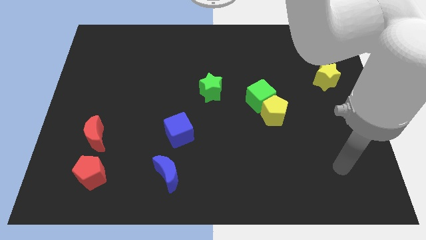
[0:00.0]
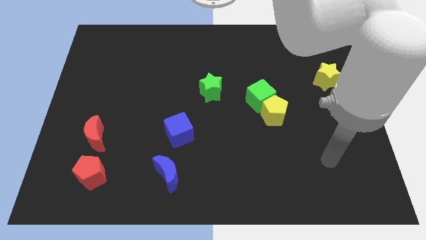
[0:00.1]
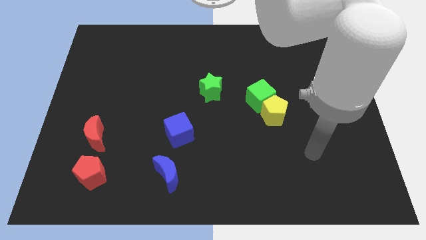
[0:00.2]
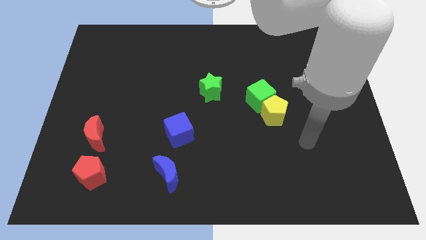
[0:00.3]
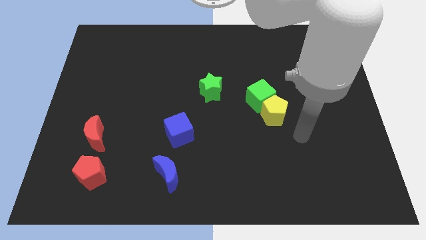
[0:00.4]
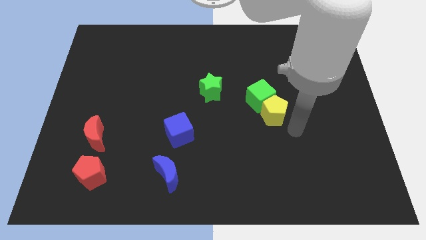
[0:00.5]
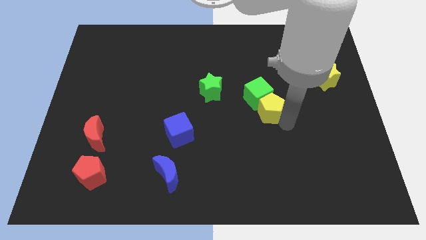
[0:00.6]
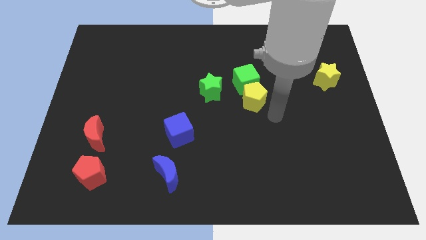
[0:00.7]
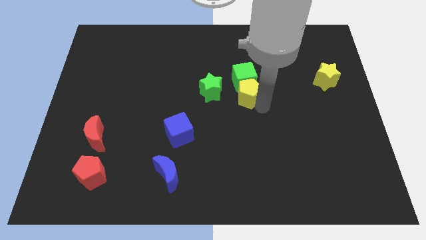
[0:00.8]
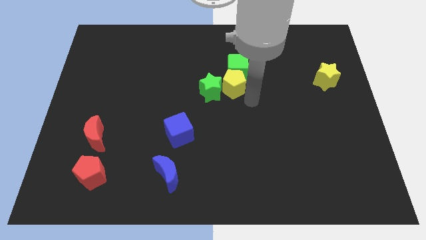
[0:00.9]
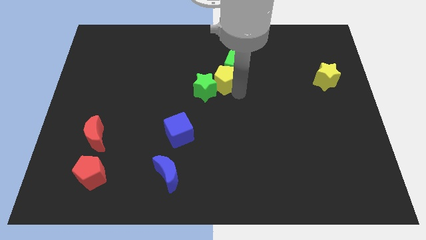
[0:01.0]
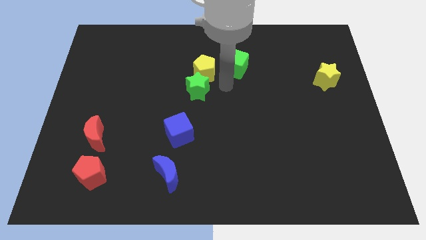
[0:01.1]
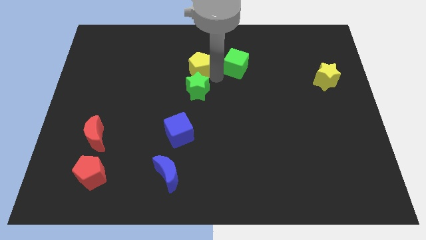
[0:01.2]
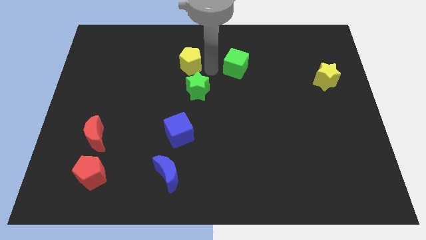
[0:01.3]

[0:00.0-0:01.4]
pull the green cube apart from the yellow pentagon

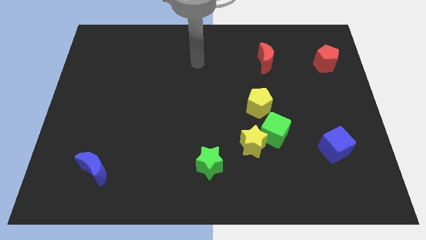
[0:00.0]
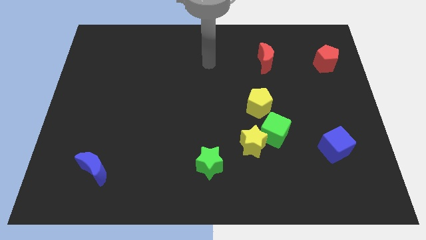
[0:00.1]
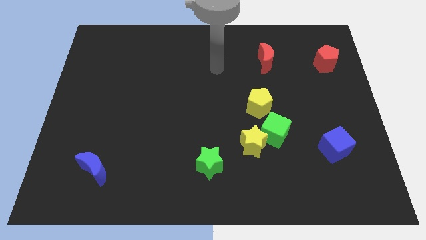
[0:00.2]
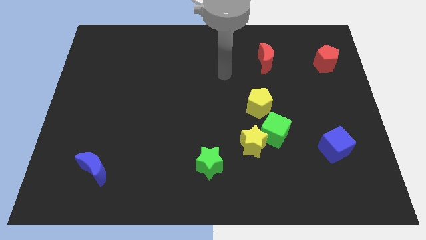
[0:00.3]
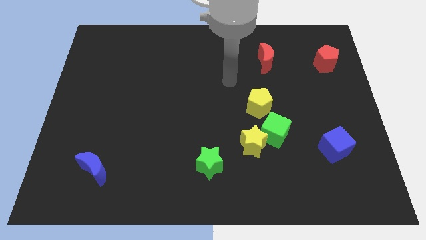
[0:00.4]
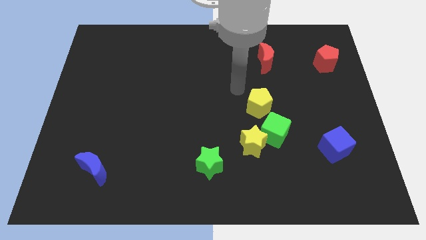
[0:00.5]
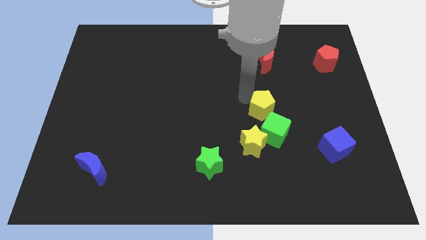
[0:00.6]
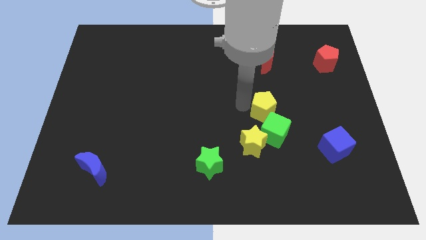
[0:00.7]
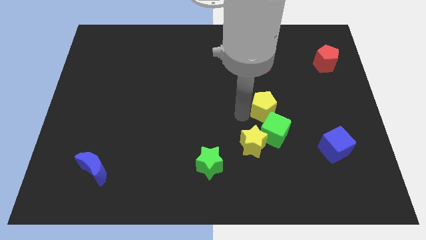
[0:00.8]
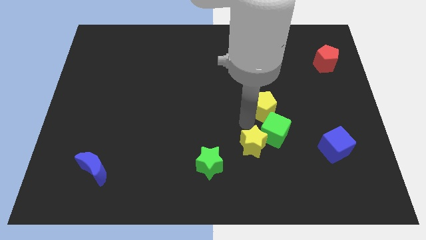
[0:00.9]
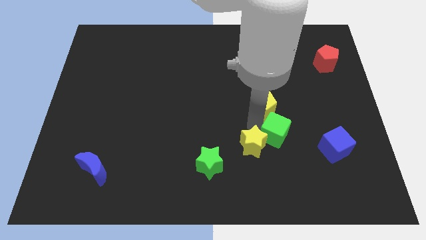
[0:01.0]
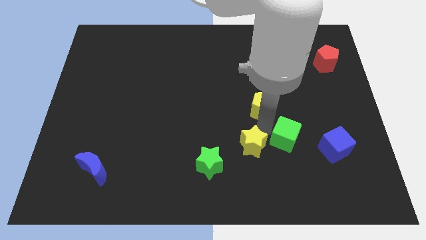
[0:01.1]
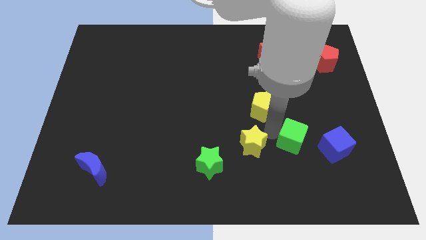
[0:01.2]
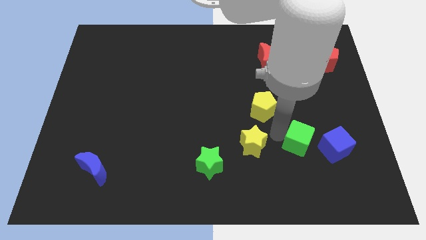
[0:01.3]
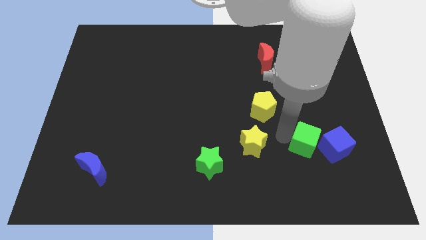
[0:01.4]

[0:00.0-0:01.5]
move the green cube away from the yellow star and yellow pentagon

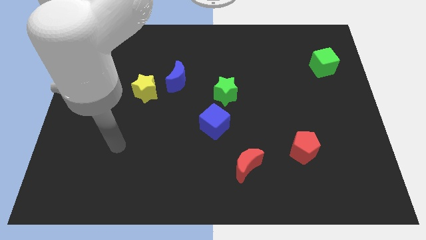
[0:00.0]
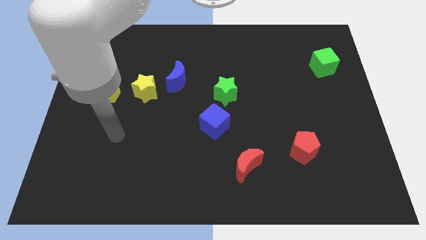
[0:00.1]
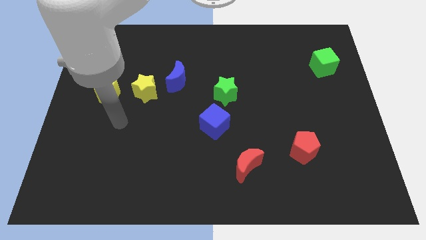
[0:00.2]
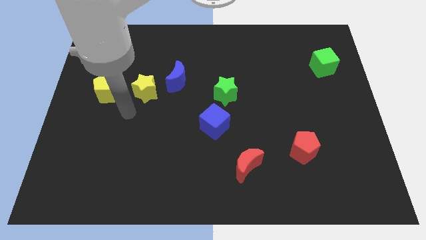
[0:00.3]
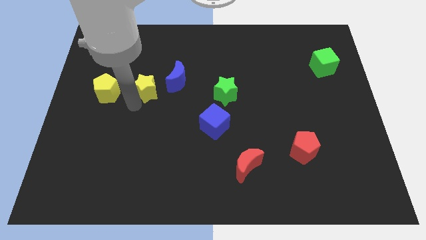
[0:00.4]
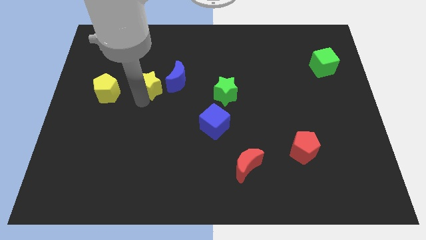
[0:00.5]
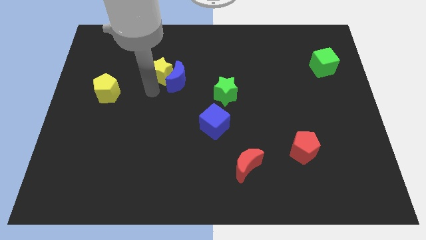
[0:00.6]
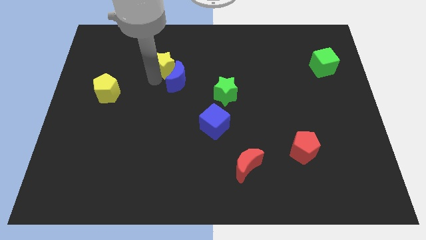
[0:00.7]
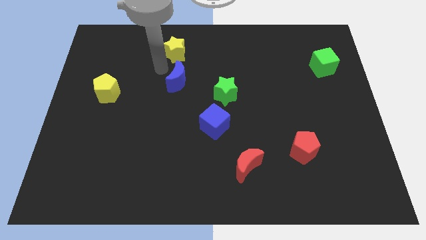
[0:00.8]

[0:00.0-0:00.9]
move the blue moon away from the yellow star

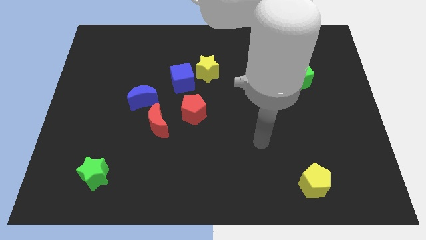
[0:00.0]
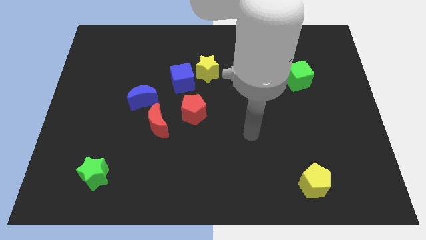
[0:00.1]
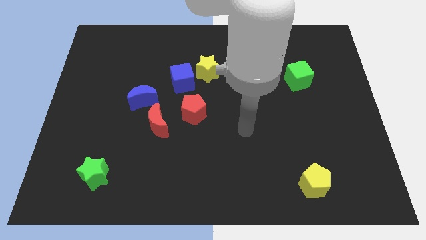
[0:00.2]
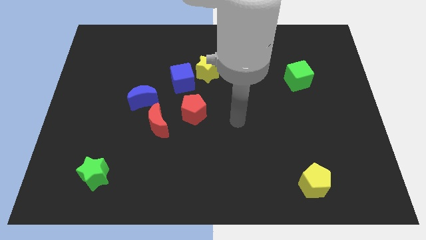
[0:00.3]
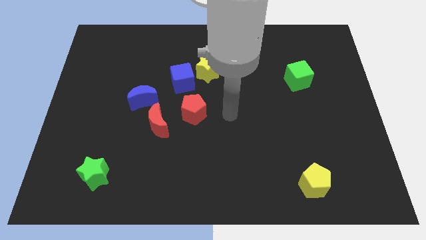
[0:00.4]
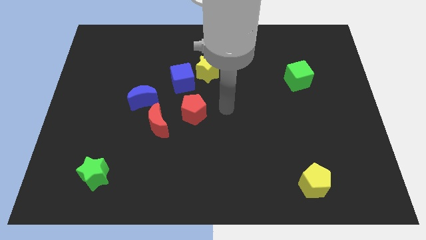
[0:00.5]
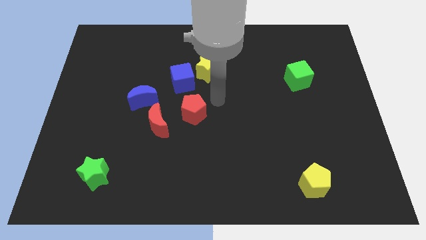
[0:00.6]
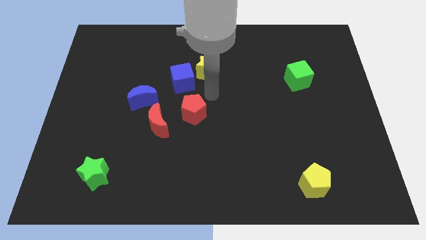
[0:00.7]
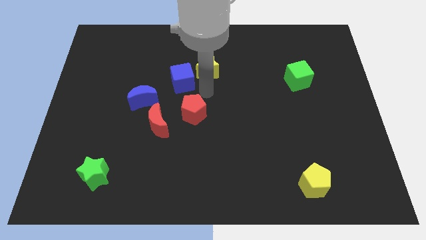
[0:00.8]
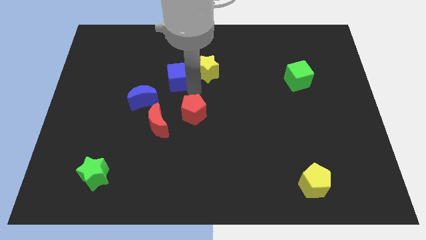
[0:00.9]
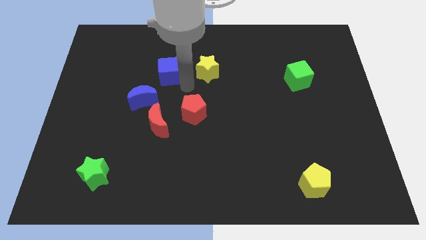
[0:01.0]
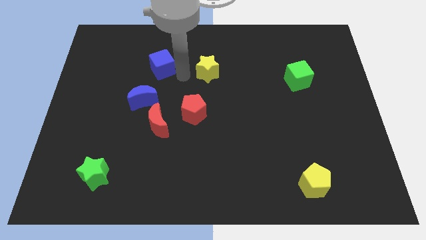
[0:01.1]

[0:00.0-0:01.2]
pull the yellow star apart from the blue cube

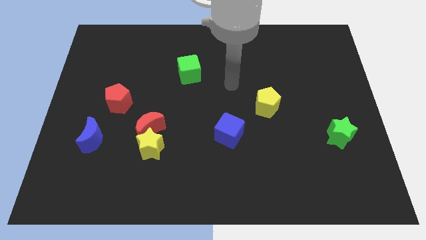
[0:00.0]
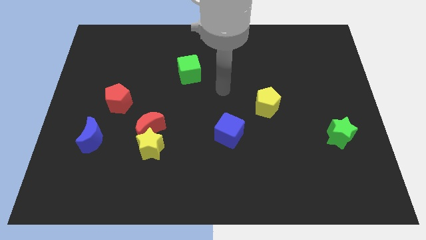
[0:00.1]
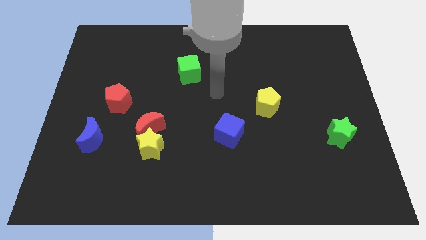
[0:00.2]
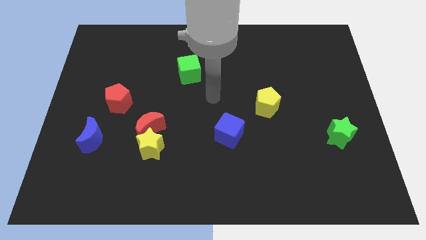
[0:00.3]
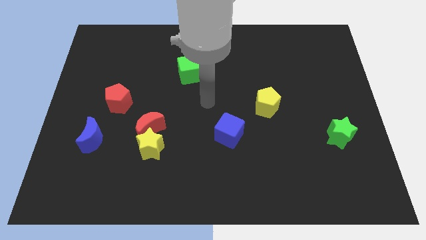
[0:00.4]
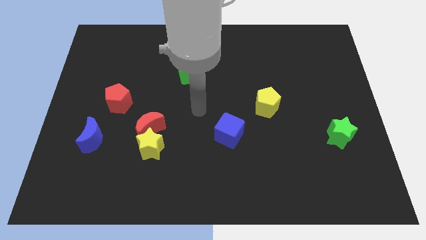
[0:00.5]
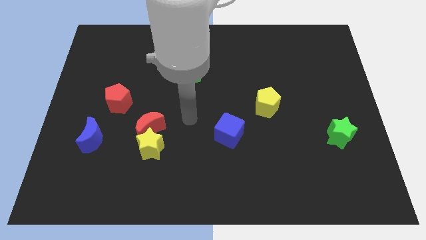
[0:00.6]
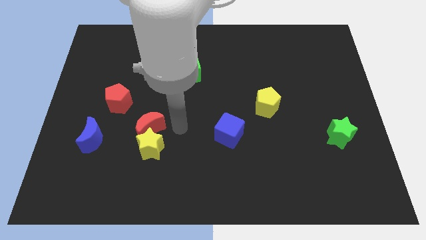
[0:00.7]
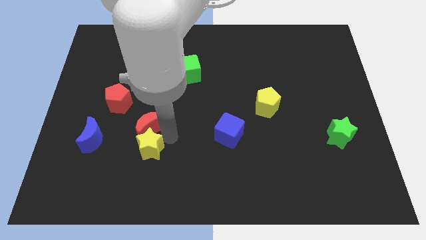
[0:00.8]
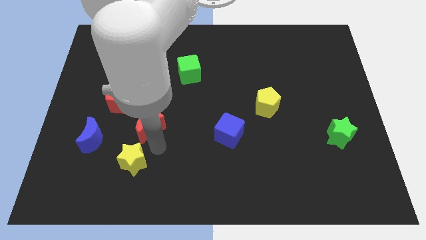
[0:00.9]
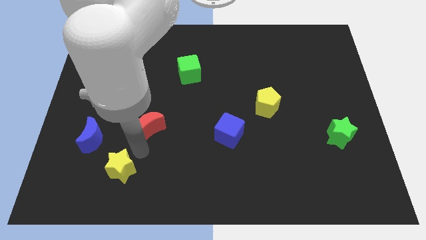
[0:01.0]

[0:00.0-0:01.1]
separate the red moon from the yellow star

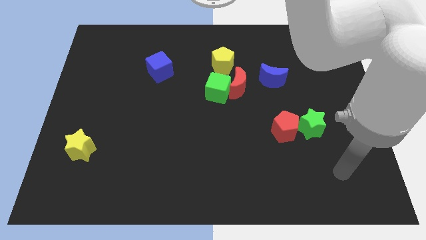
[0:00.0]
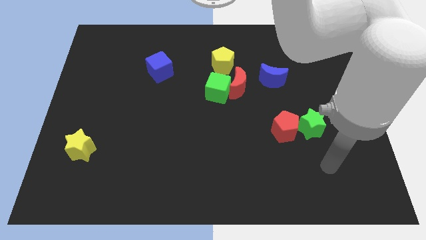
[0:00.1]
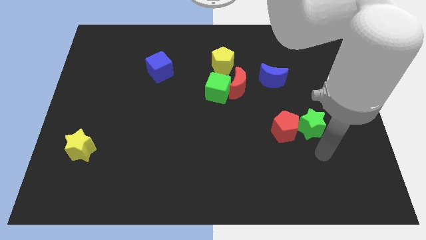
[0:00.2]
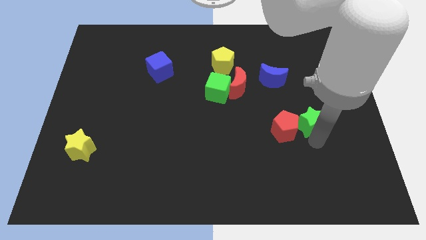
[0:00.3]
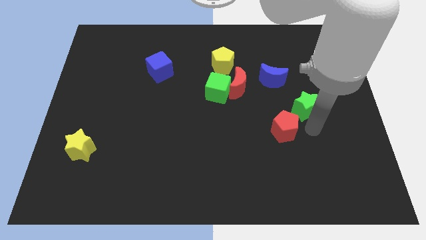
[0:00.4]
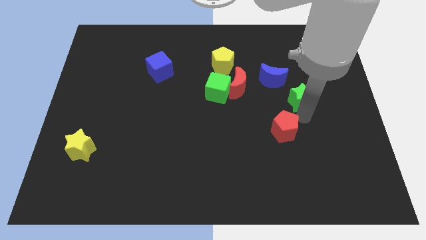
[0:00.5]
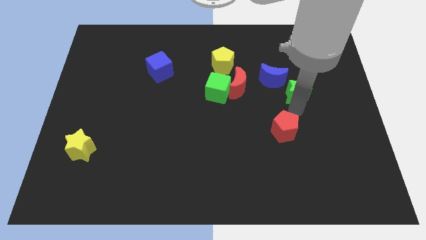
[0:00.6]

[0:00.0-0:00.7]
separate the red pentagon from the green star

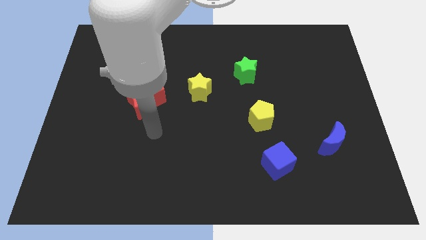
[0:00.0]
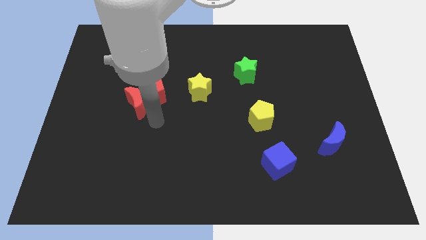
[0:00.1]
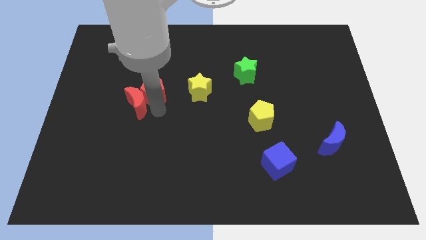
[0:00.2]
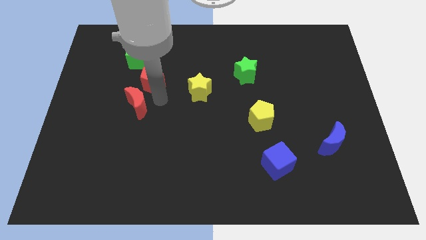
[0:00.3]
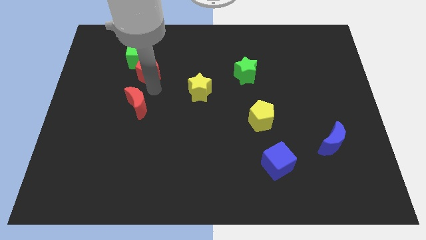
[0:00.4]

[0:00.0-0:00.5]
pull the red moon apart from the red pentagon

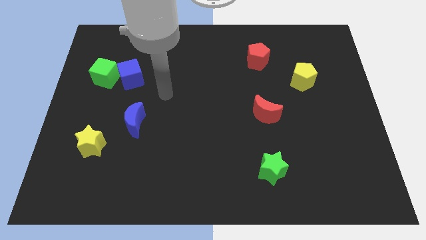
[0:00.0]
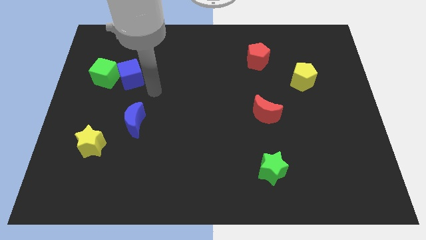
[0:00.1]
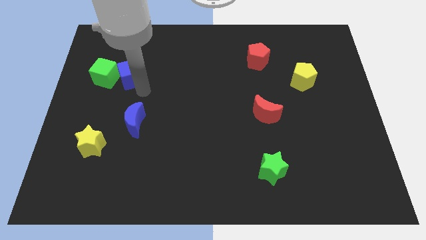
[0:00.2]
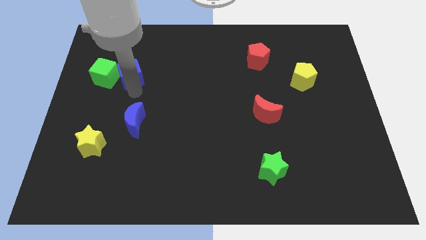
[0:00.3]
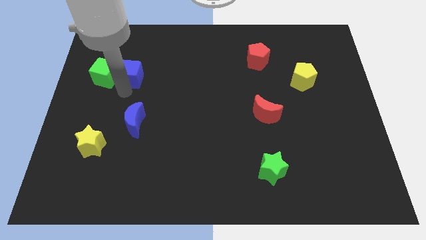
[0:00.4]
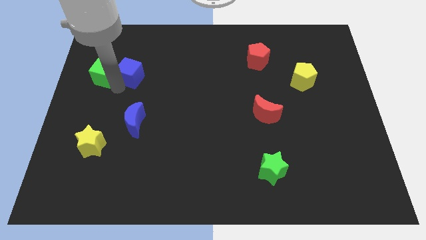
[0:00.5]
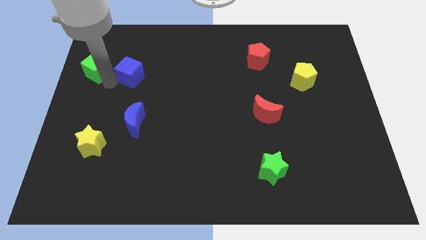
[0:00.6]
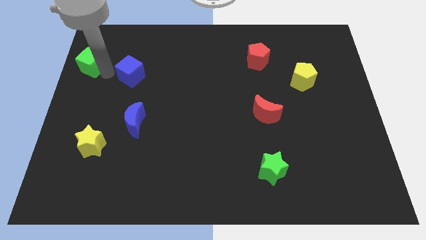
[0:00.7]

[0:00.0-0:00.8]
pull the blue cube apart from the green cube

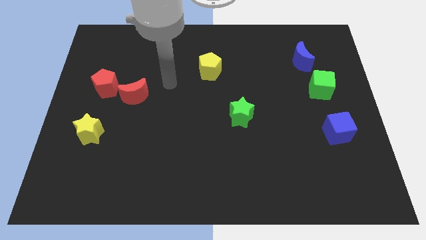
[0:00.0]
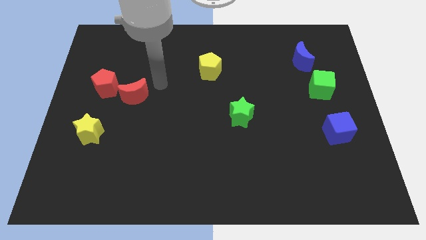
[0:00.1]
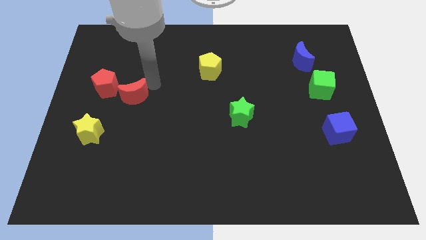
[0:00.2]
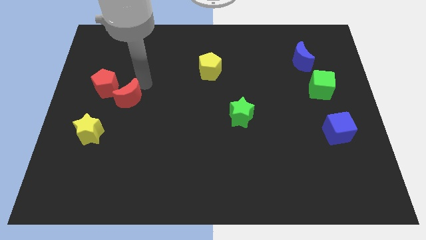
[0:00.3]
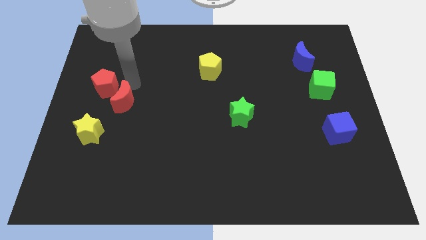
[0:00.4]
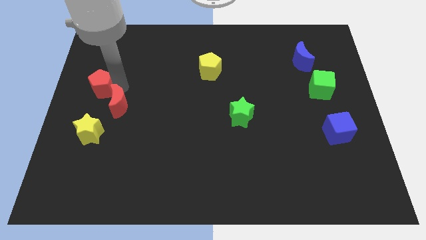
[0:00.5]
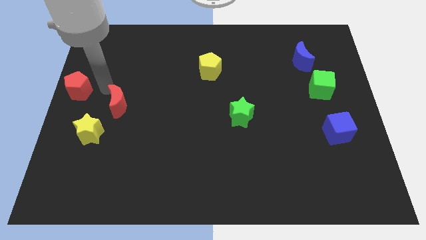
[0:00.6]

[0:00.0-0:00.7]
move the red moon away from the red pentagon

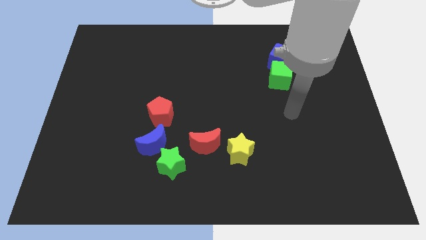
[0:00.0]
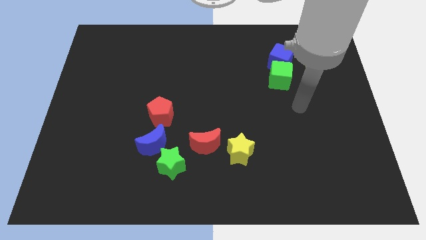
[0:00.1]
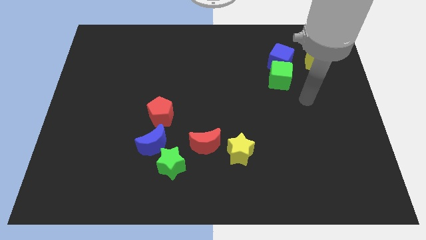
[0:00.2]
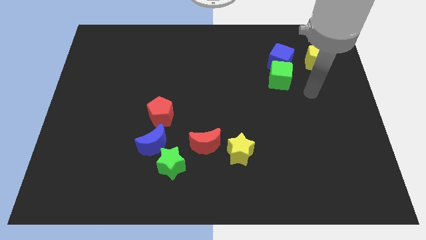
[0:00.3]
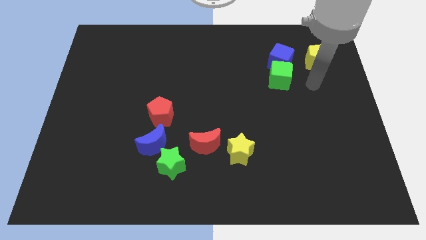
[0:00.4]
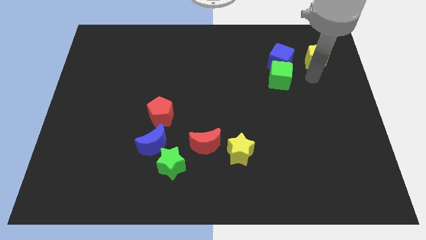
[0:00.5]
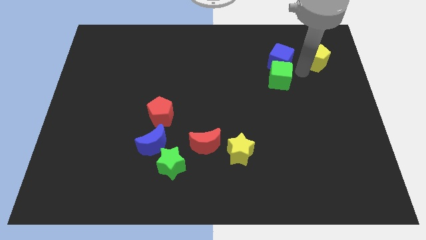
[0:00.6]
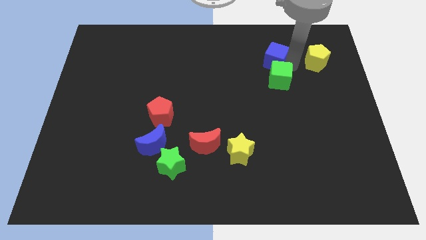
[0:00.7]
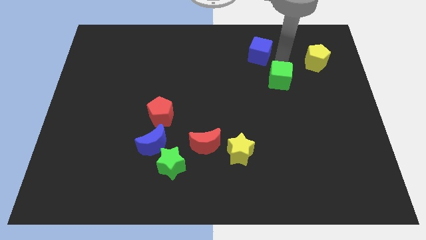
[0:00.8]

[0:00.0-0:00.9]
move the green cube away from the blue cube
